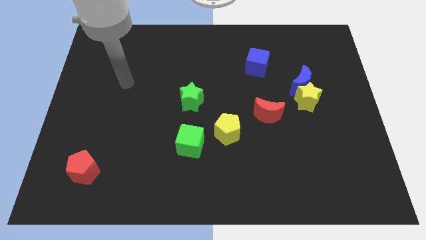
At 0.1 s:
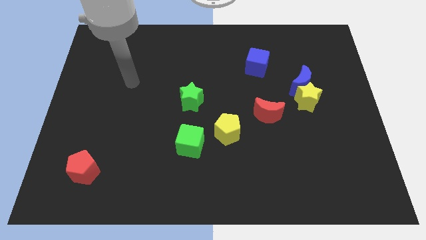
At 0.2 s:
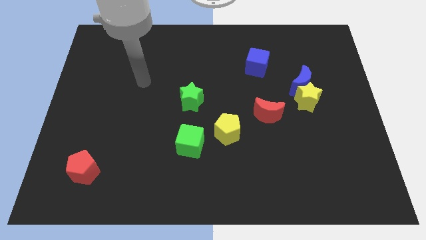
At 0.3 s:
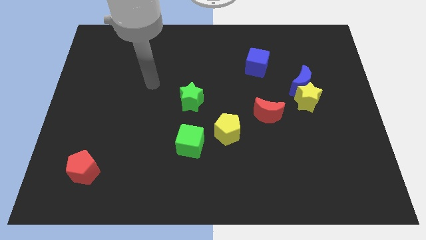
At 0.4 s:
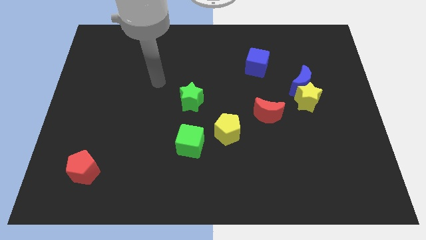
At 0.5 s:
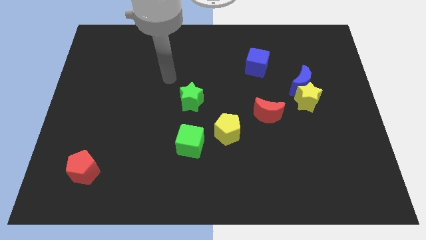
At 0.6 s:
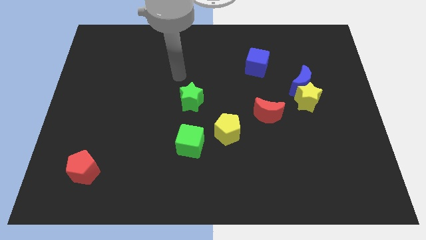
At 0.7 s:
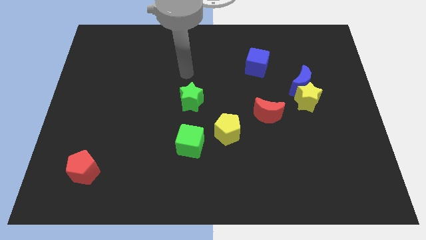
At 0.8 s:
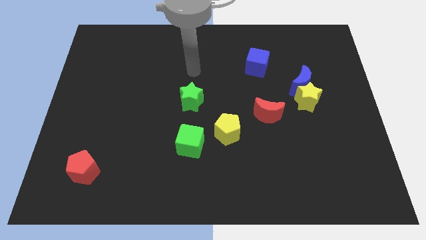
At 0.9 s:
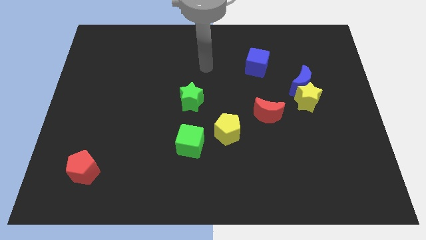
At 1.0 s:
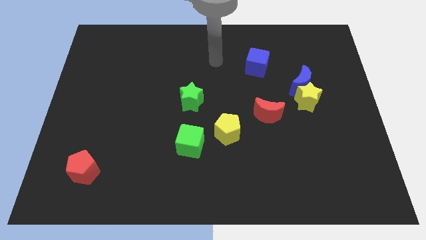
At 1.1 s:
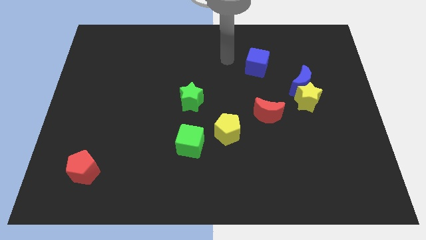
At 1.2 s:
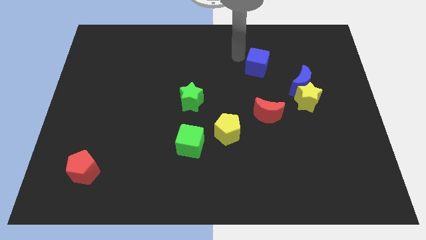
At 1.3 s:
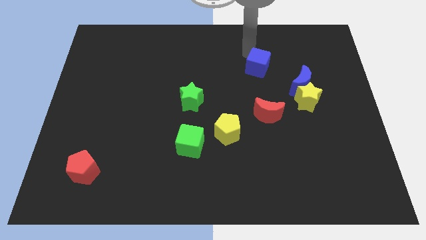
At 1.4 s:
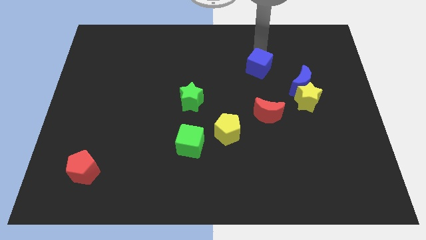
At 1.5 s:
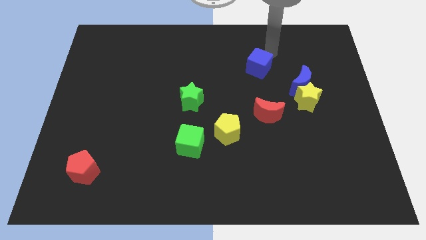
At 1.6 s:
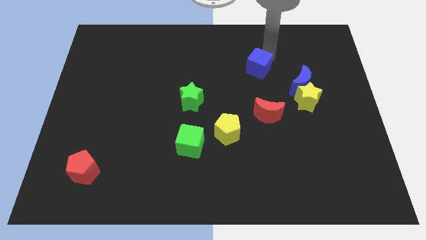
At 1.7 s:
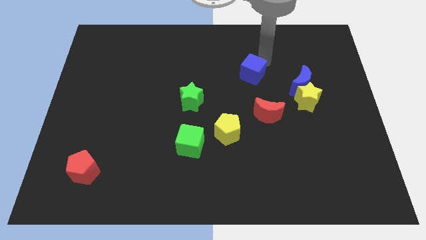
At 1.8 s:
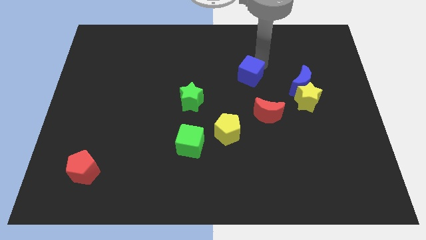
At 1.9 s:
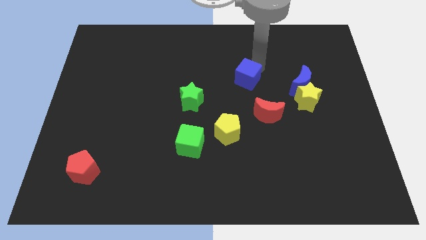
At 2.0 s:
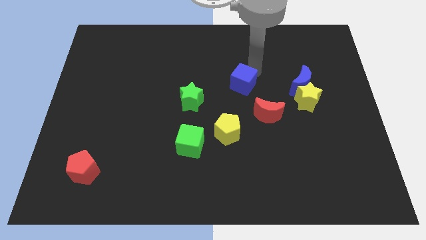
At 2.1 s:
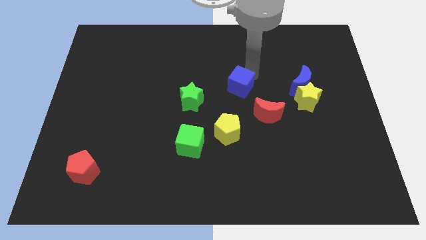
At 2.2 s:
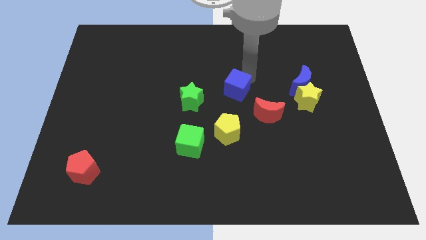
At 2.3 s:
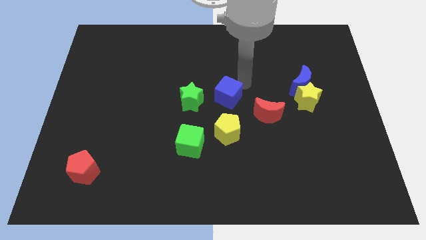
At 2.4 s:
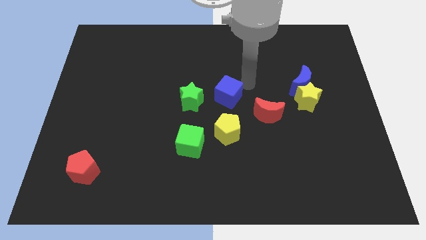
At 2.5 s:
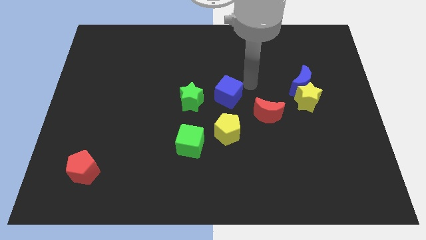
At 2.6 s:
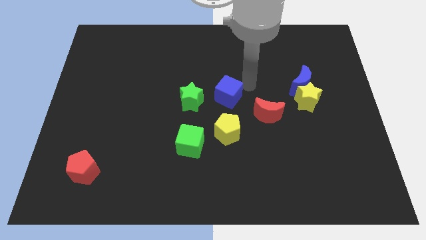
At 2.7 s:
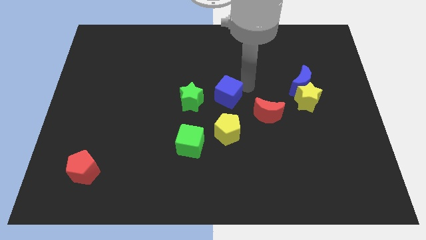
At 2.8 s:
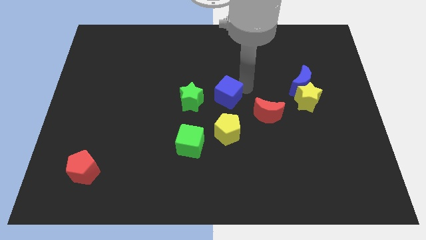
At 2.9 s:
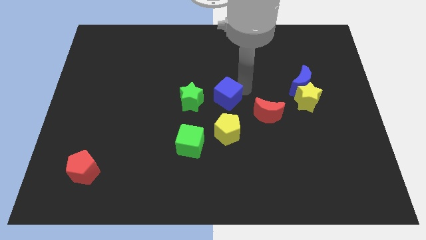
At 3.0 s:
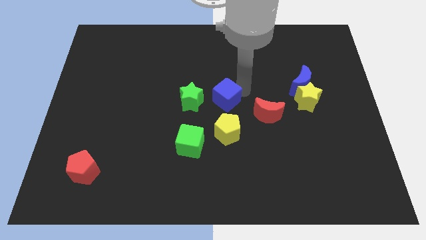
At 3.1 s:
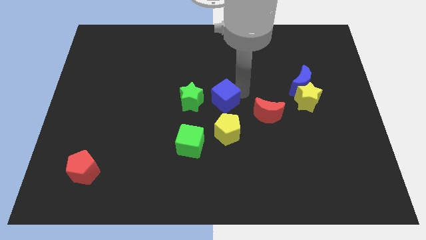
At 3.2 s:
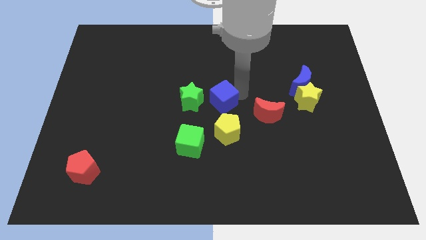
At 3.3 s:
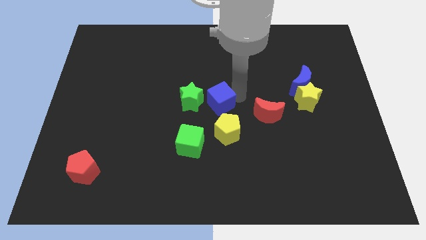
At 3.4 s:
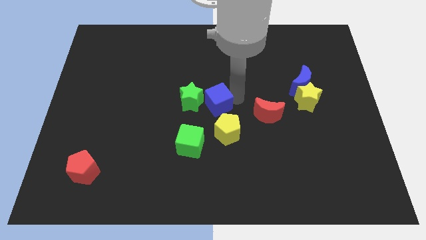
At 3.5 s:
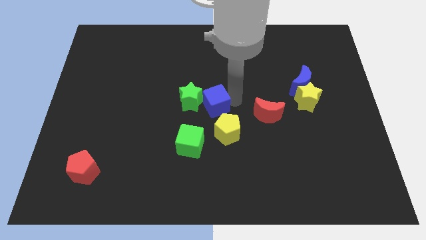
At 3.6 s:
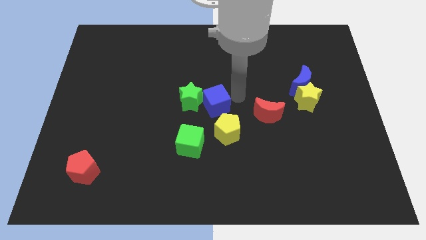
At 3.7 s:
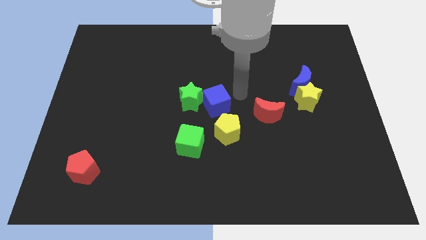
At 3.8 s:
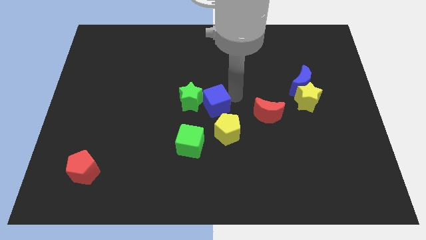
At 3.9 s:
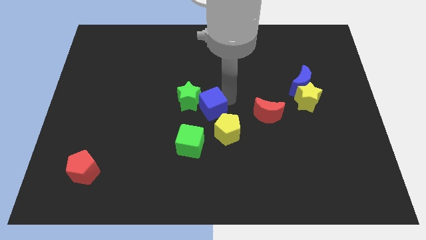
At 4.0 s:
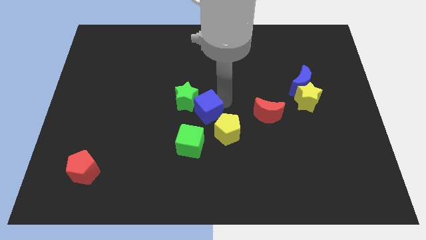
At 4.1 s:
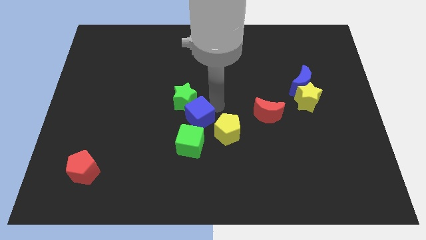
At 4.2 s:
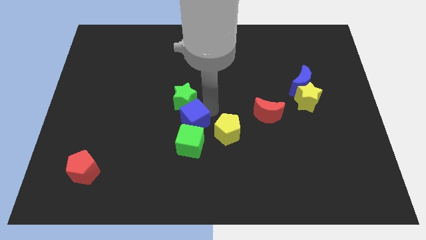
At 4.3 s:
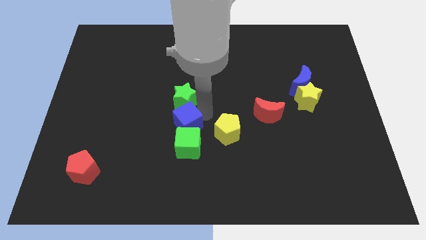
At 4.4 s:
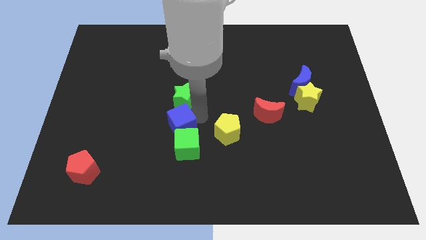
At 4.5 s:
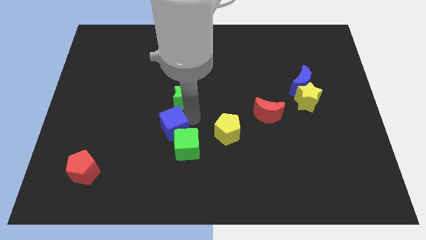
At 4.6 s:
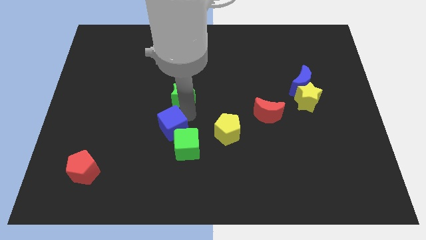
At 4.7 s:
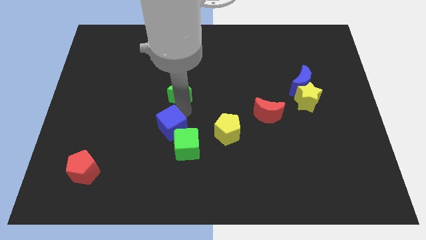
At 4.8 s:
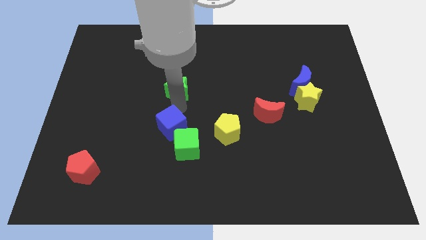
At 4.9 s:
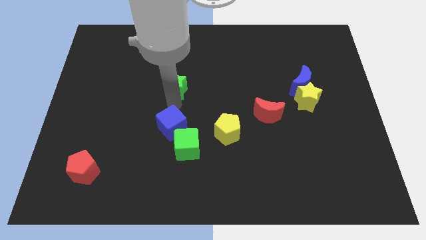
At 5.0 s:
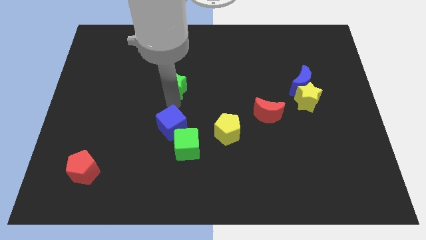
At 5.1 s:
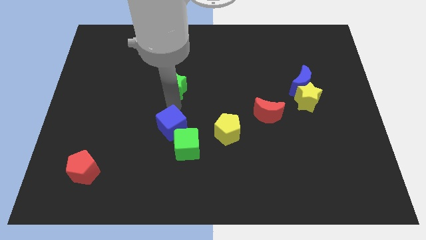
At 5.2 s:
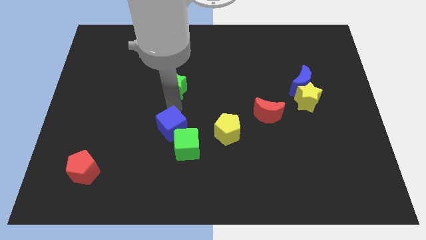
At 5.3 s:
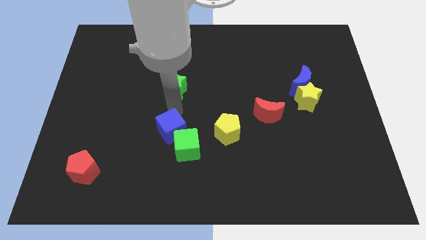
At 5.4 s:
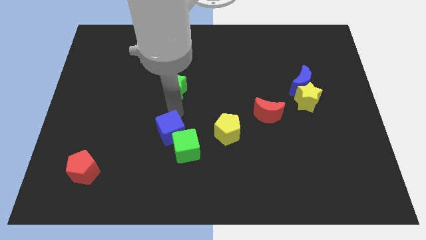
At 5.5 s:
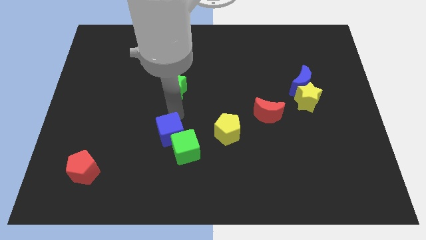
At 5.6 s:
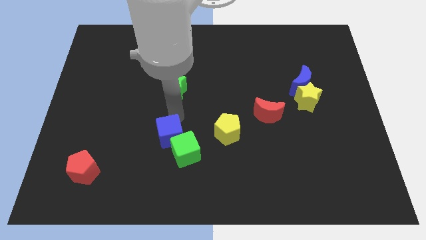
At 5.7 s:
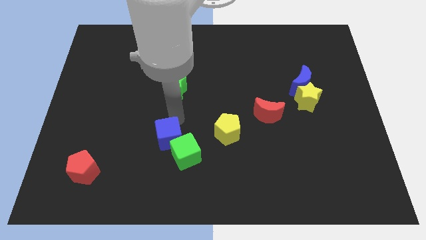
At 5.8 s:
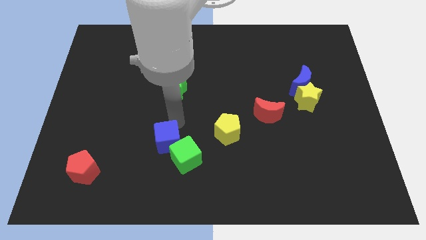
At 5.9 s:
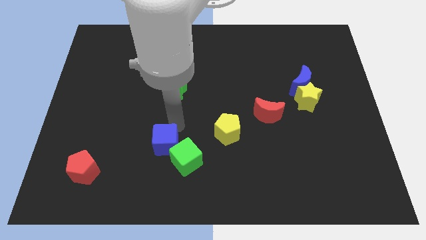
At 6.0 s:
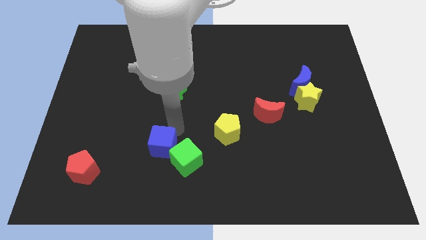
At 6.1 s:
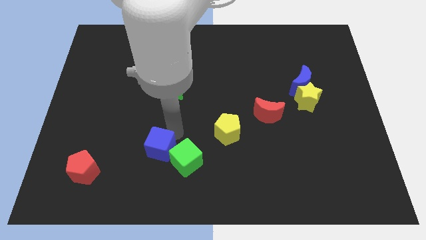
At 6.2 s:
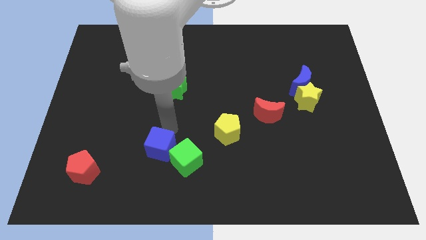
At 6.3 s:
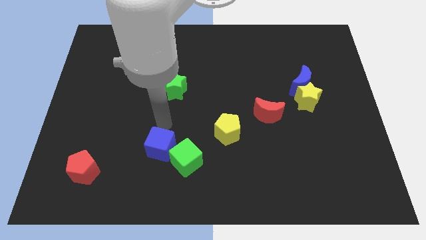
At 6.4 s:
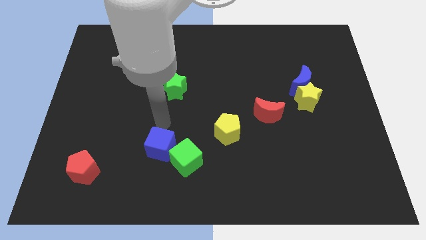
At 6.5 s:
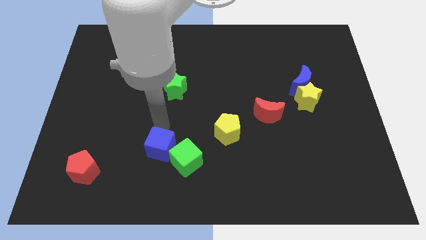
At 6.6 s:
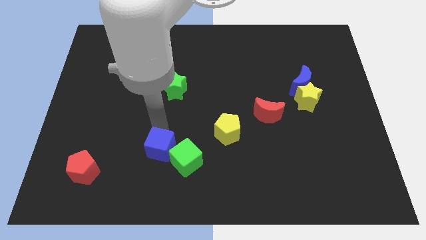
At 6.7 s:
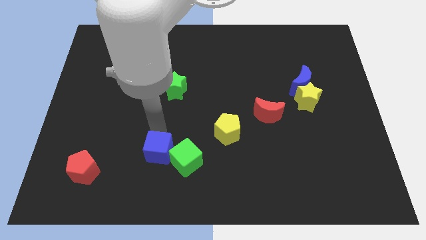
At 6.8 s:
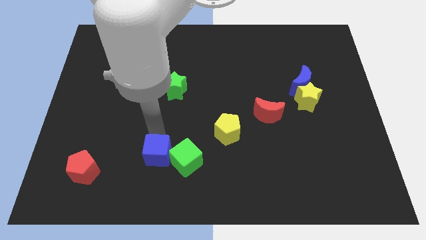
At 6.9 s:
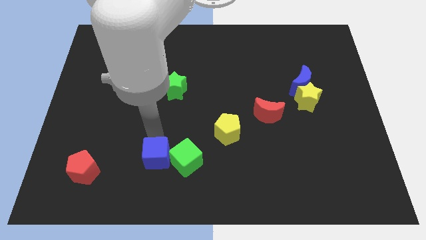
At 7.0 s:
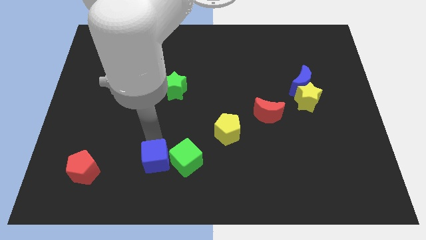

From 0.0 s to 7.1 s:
push the blue cube to the bottom left of the green cube
